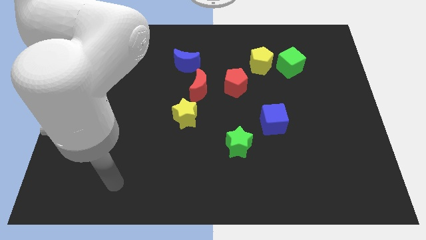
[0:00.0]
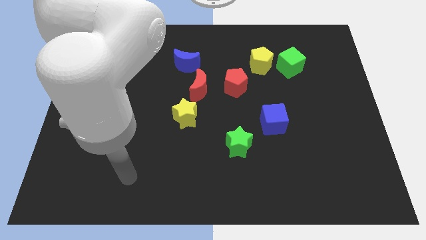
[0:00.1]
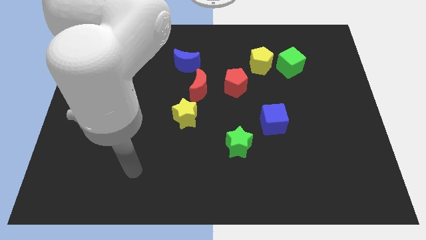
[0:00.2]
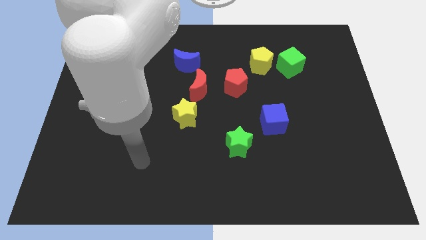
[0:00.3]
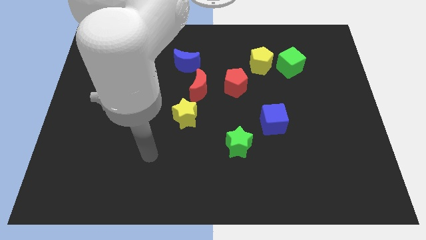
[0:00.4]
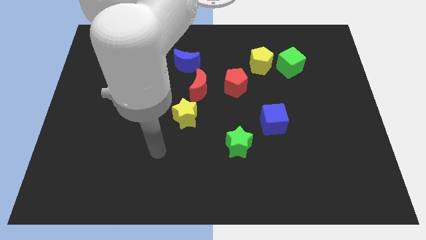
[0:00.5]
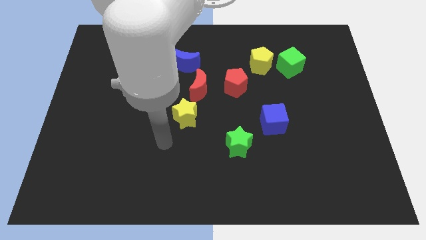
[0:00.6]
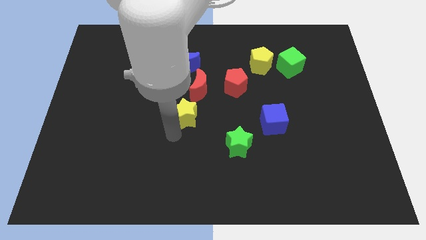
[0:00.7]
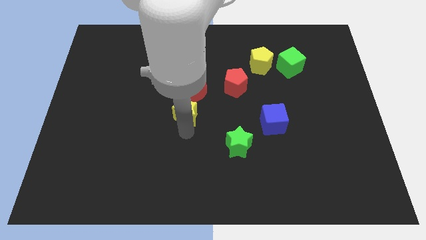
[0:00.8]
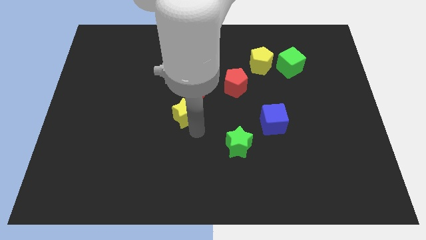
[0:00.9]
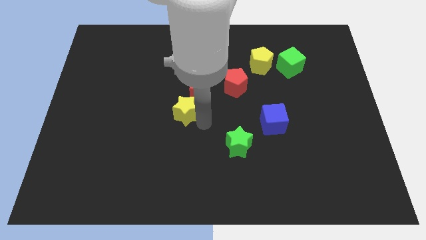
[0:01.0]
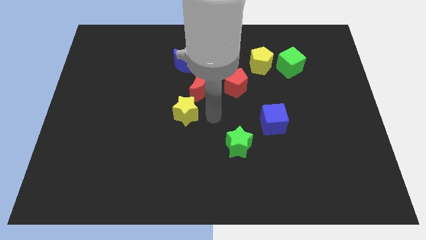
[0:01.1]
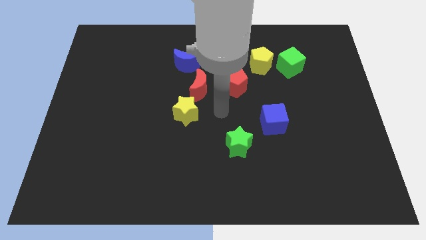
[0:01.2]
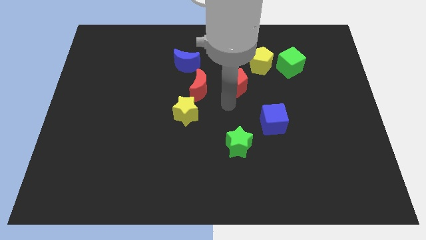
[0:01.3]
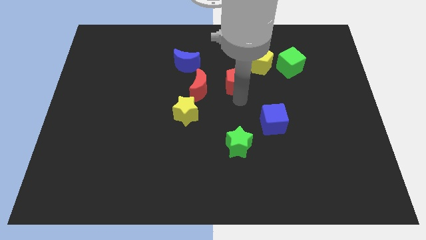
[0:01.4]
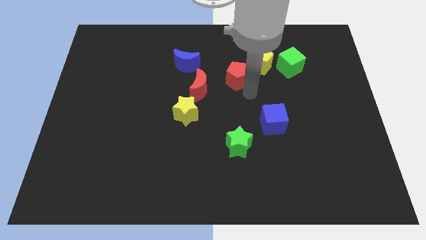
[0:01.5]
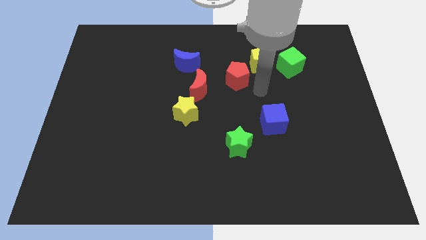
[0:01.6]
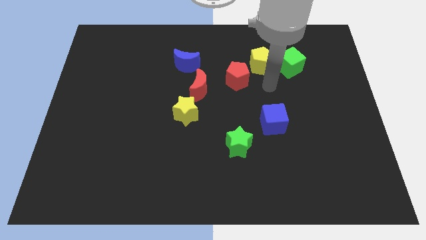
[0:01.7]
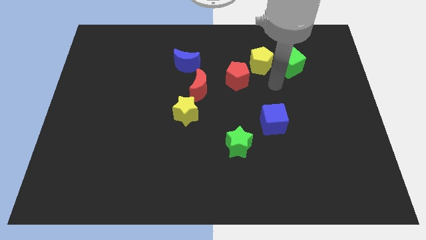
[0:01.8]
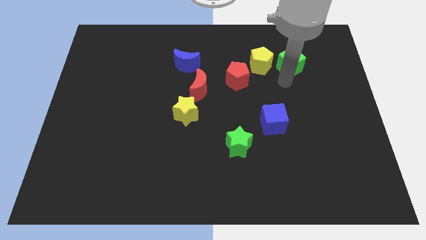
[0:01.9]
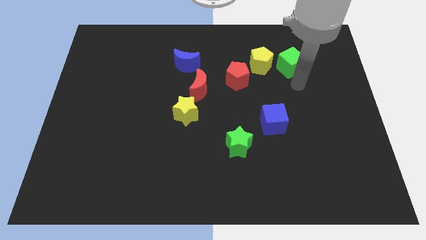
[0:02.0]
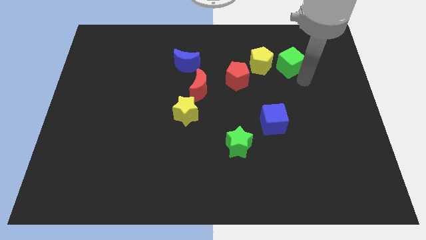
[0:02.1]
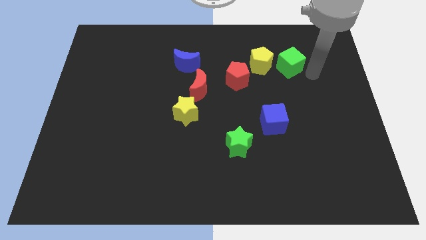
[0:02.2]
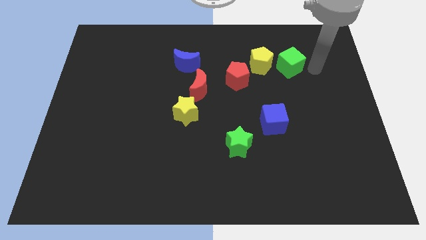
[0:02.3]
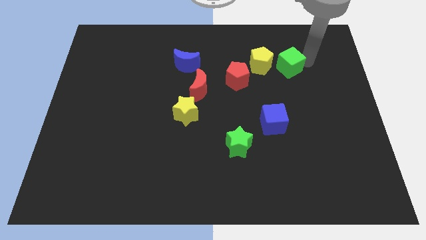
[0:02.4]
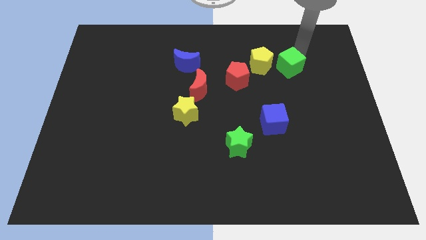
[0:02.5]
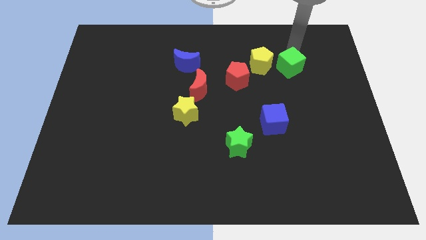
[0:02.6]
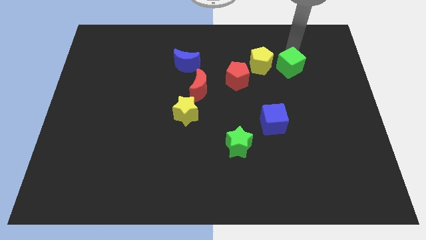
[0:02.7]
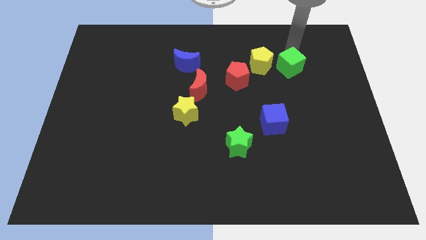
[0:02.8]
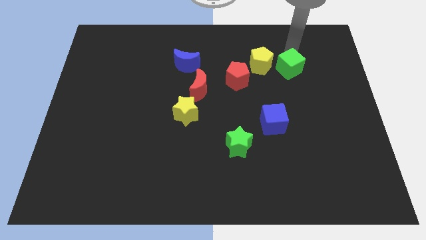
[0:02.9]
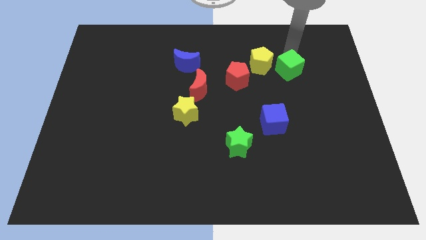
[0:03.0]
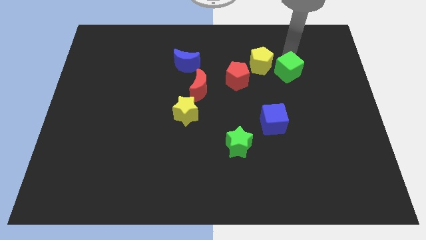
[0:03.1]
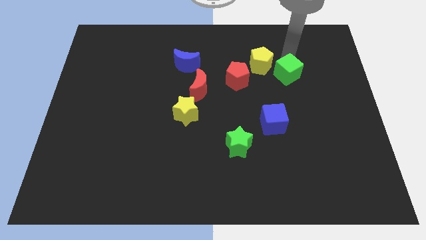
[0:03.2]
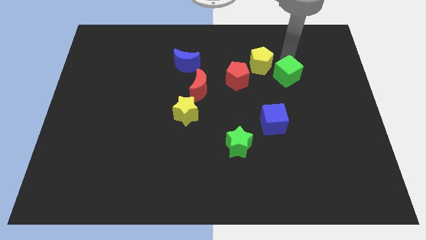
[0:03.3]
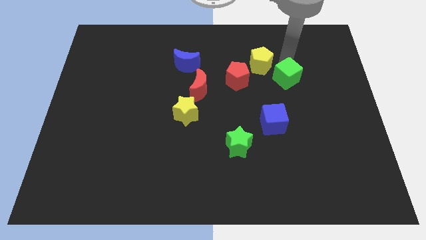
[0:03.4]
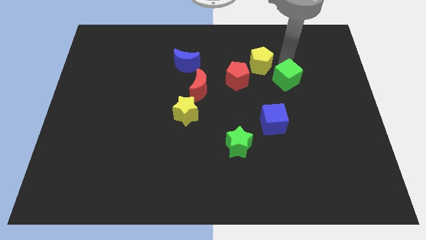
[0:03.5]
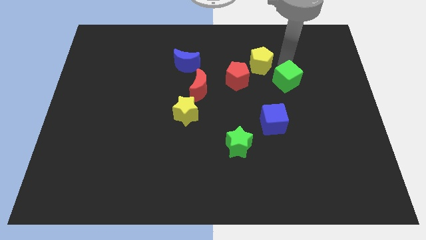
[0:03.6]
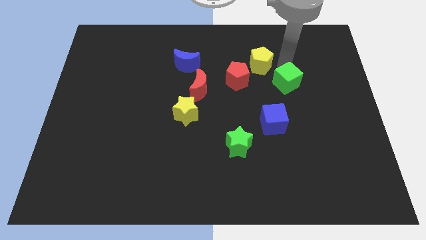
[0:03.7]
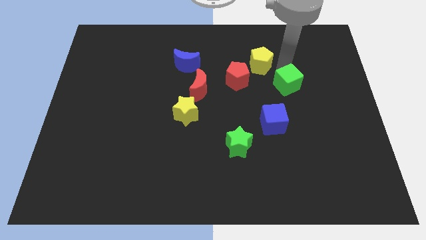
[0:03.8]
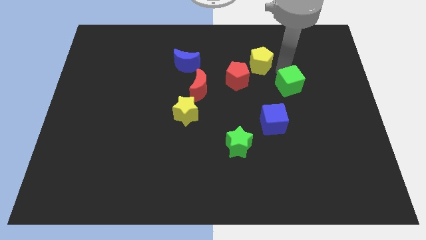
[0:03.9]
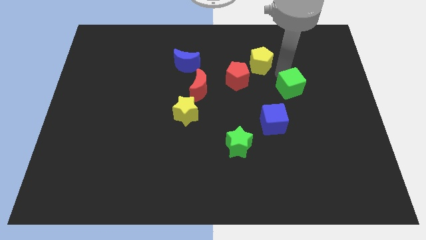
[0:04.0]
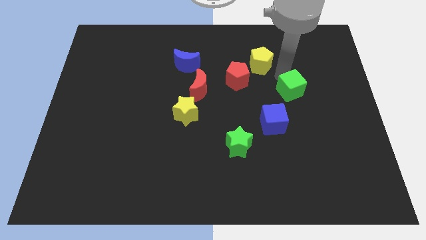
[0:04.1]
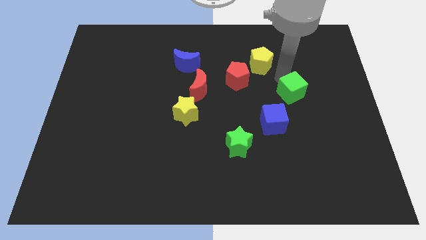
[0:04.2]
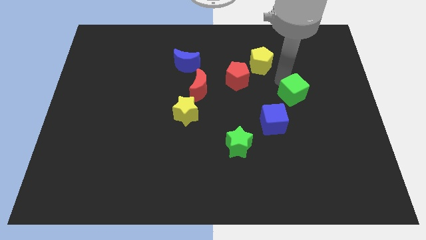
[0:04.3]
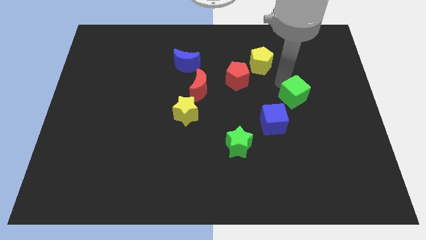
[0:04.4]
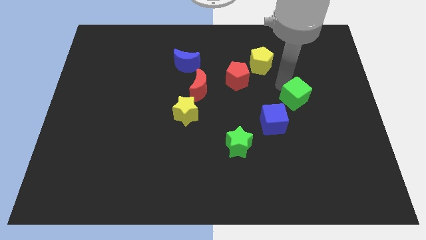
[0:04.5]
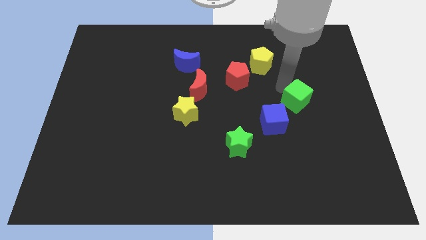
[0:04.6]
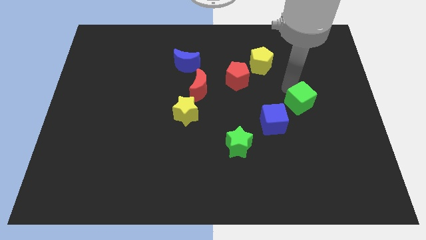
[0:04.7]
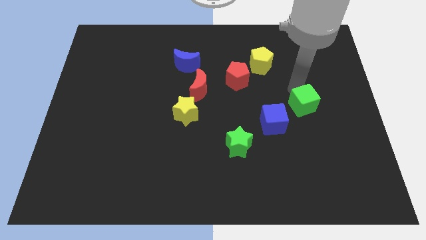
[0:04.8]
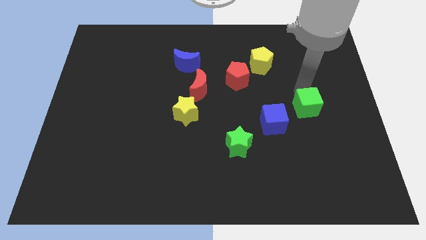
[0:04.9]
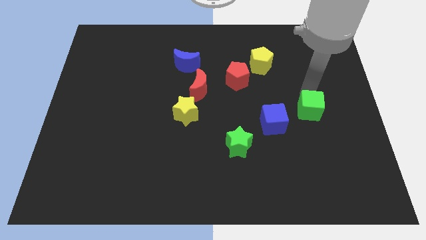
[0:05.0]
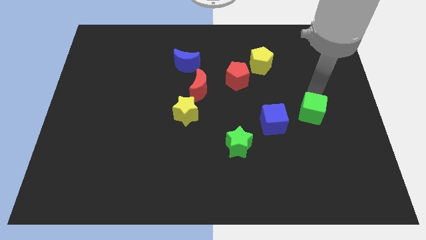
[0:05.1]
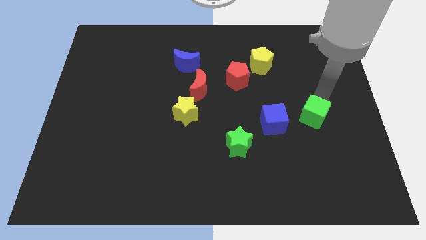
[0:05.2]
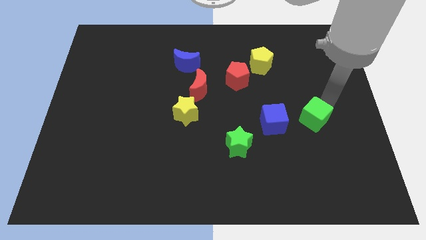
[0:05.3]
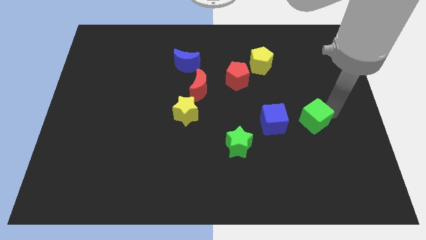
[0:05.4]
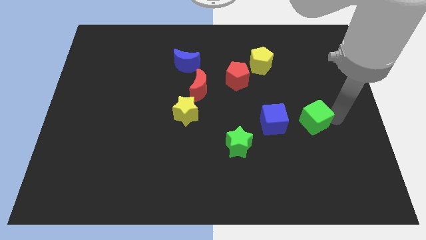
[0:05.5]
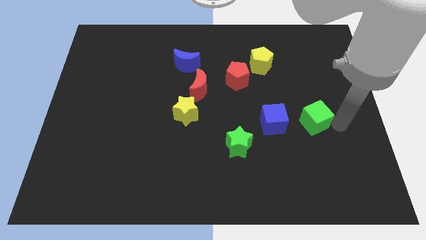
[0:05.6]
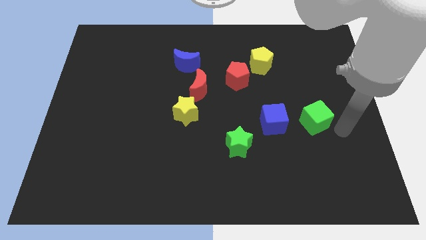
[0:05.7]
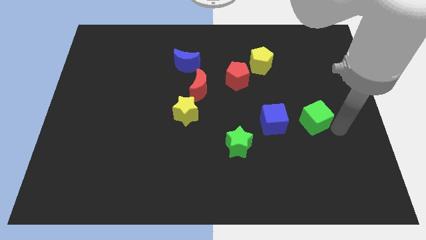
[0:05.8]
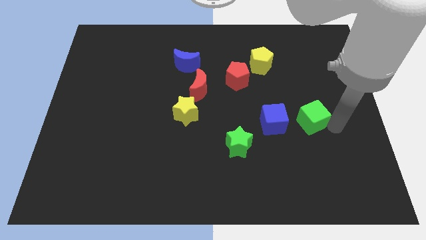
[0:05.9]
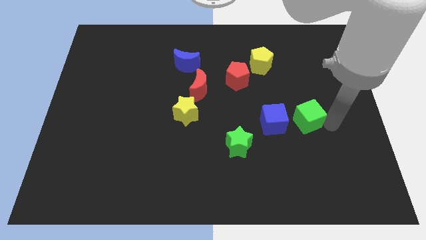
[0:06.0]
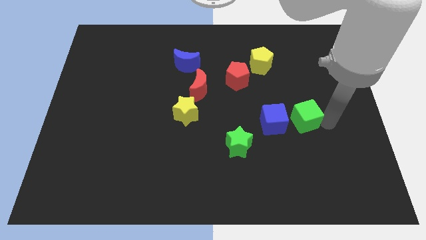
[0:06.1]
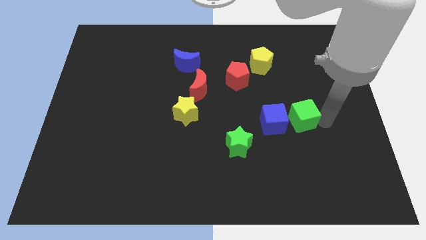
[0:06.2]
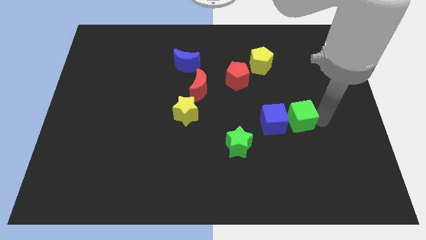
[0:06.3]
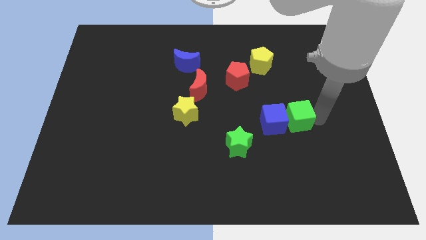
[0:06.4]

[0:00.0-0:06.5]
put the green cube to the blue cube

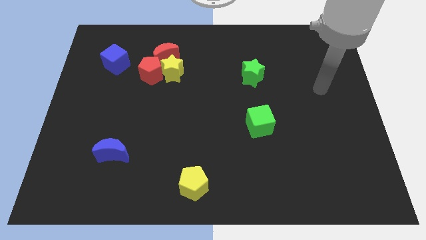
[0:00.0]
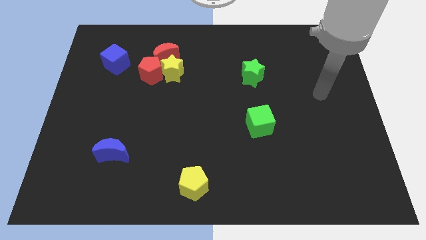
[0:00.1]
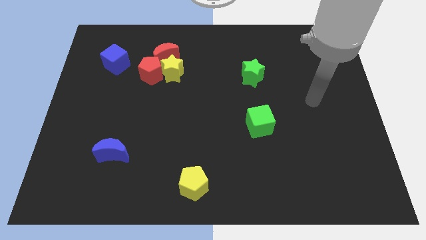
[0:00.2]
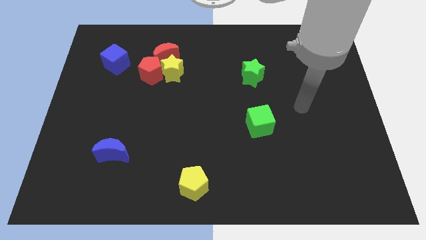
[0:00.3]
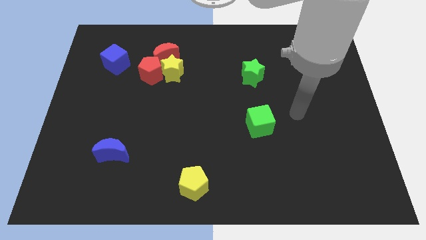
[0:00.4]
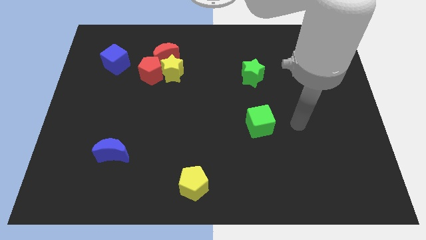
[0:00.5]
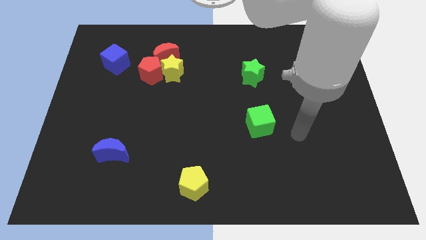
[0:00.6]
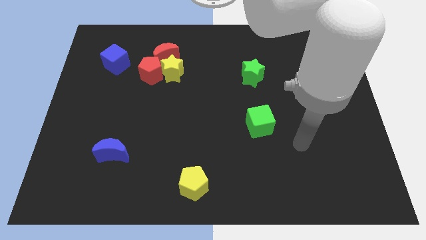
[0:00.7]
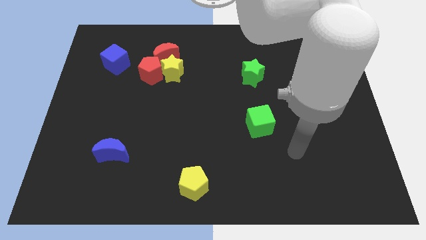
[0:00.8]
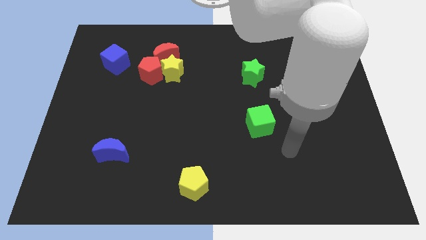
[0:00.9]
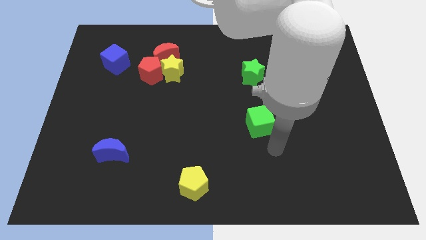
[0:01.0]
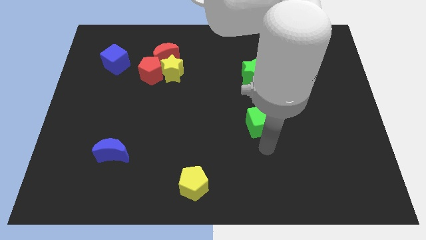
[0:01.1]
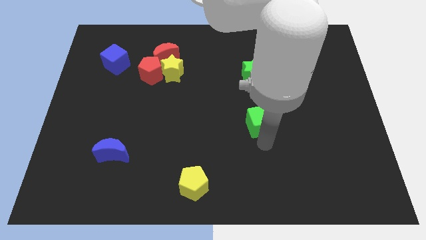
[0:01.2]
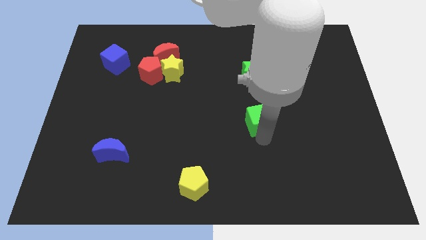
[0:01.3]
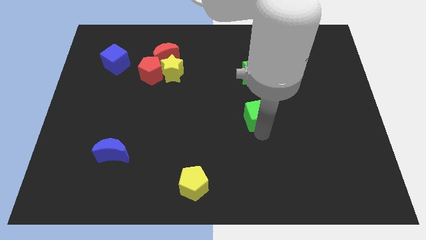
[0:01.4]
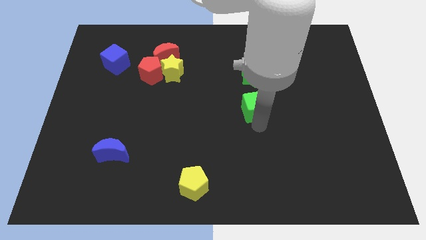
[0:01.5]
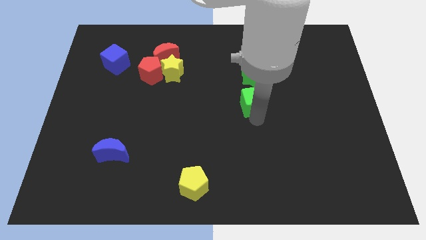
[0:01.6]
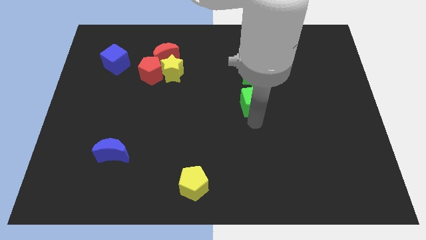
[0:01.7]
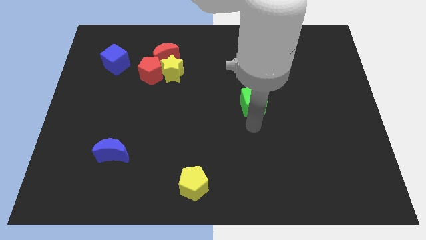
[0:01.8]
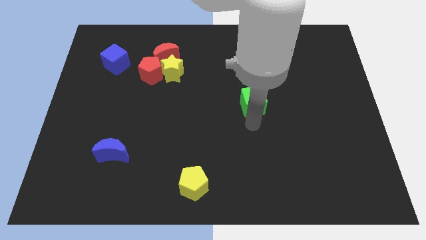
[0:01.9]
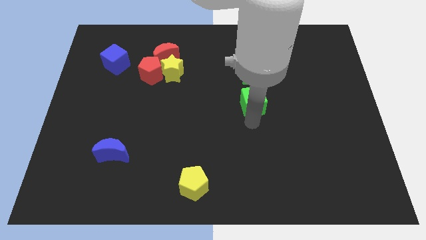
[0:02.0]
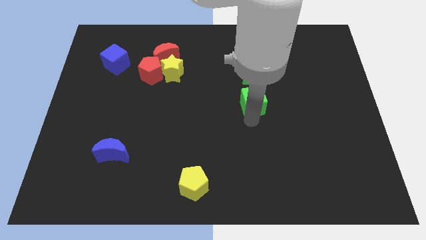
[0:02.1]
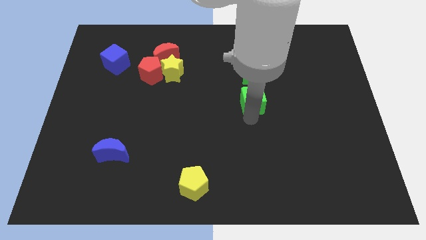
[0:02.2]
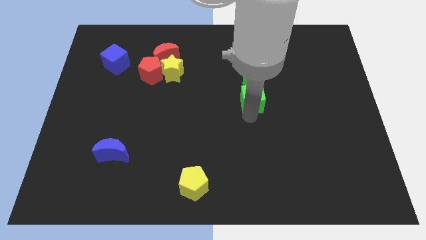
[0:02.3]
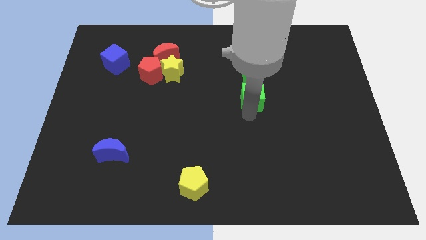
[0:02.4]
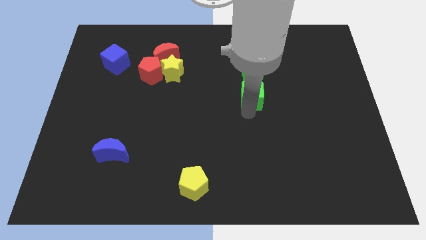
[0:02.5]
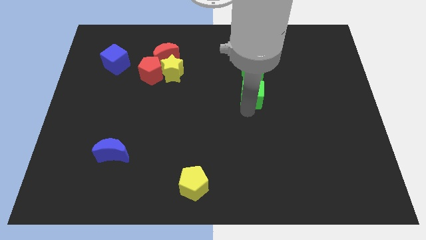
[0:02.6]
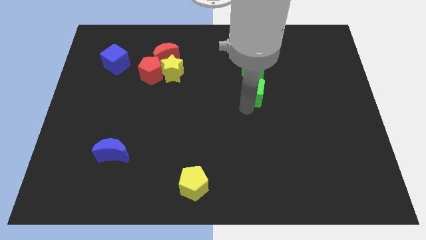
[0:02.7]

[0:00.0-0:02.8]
move the green cube towards the green star
